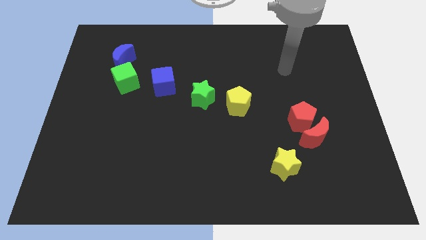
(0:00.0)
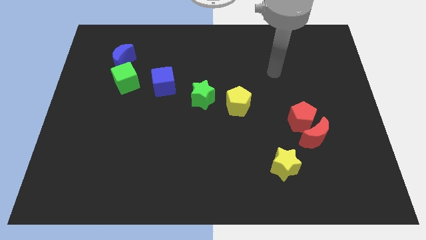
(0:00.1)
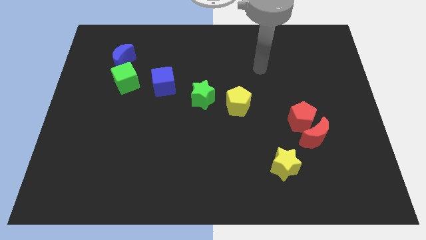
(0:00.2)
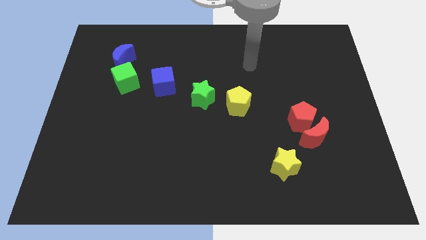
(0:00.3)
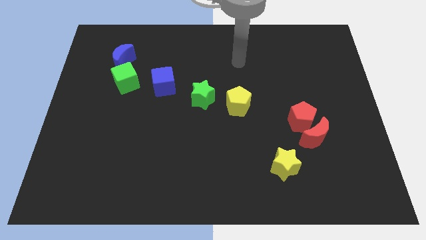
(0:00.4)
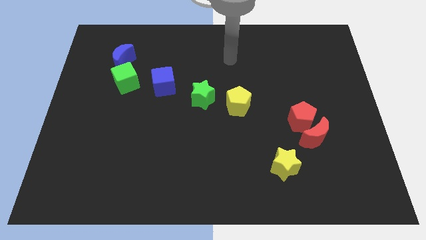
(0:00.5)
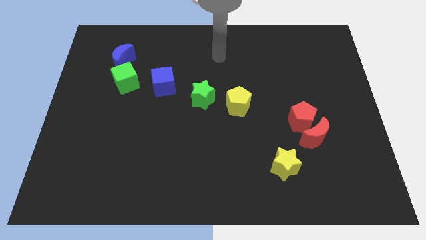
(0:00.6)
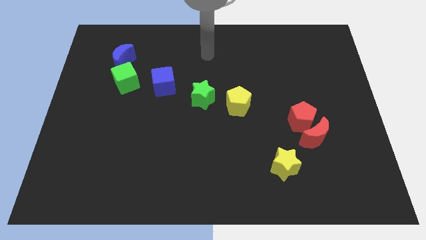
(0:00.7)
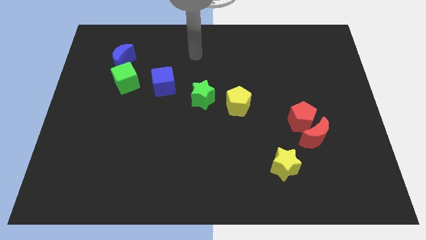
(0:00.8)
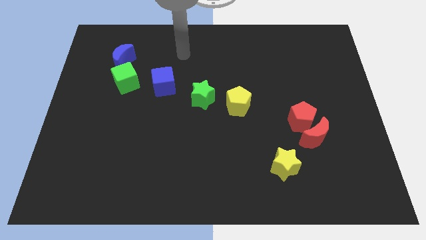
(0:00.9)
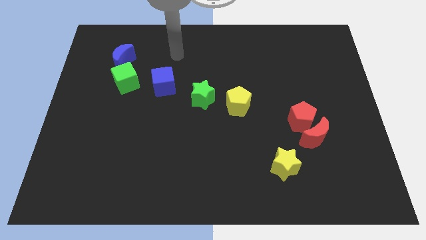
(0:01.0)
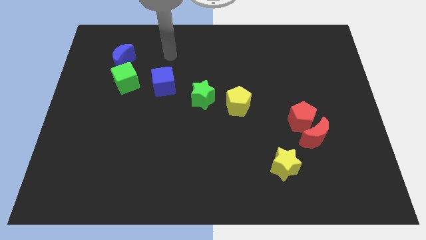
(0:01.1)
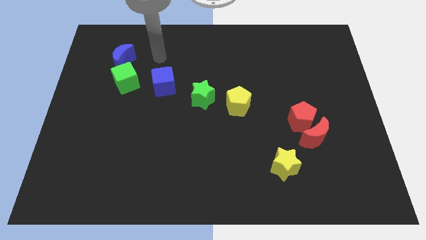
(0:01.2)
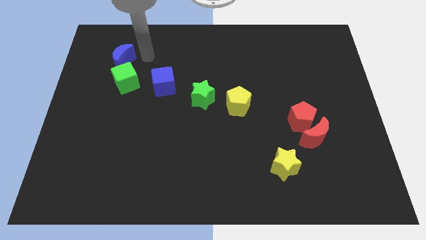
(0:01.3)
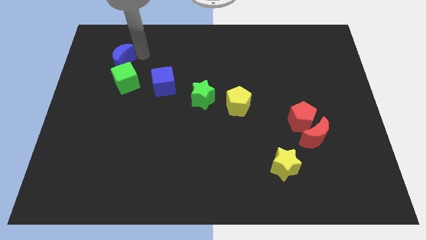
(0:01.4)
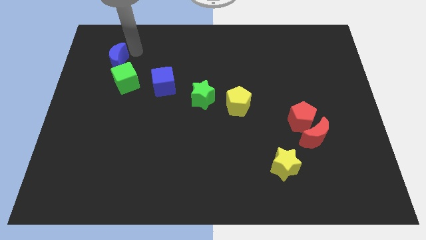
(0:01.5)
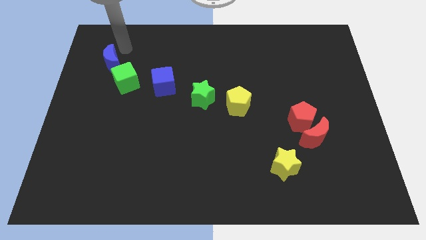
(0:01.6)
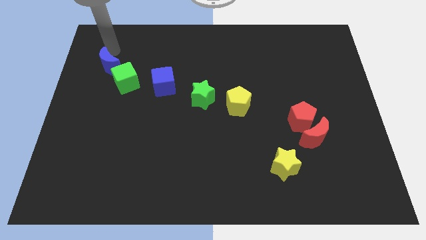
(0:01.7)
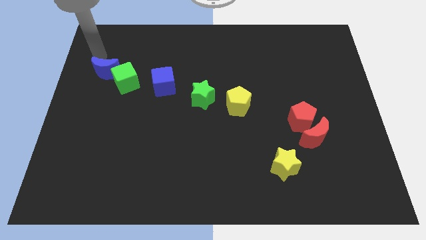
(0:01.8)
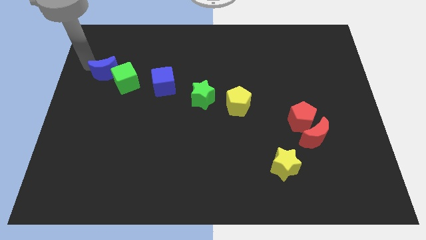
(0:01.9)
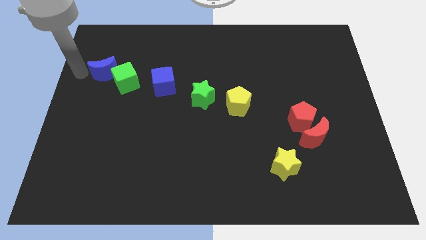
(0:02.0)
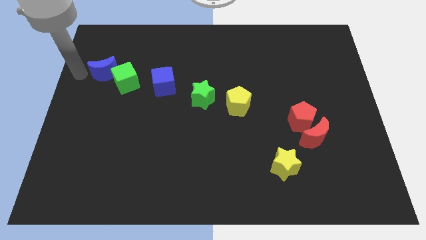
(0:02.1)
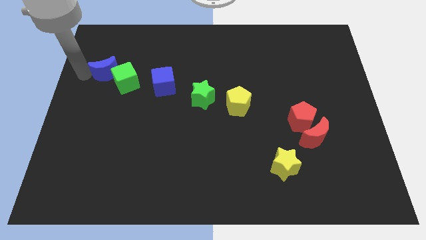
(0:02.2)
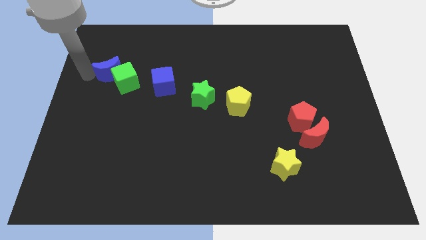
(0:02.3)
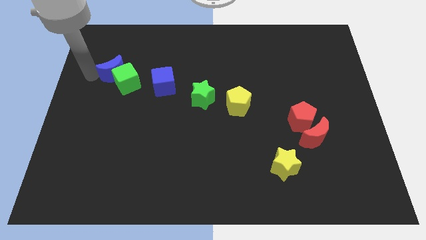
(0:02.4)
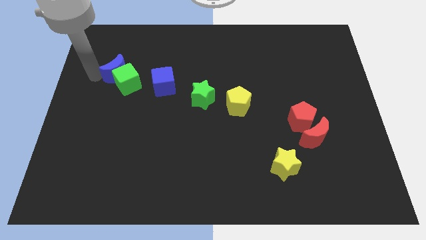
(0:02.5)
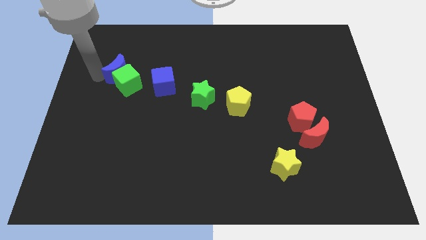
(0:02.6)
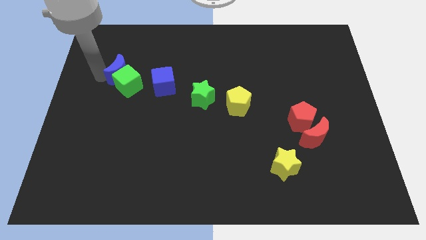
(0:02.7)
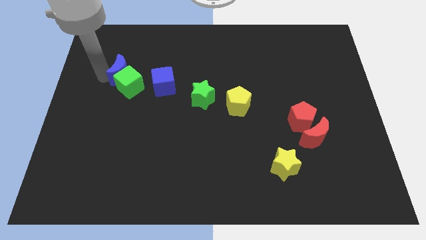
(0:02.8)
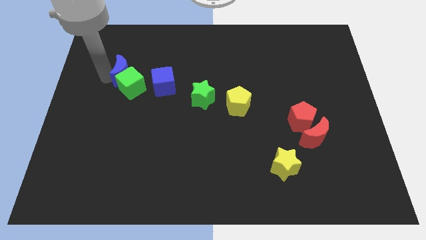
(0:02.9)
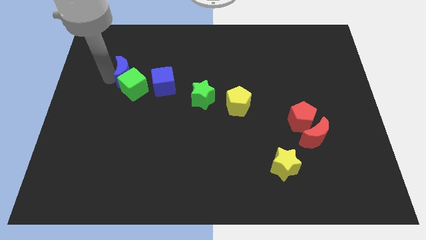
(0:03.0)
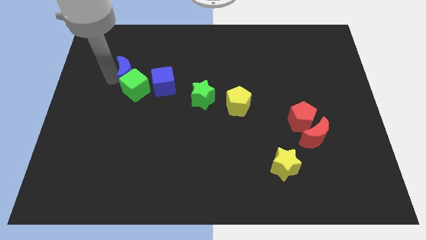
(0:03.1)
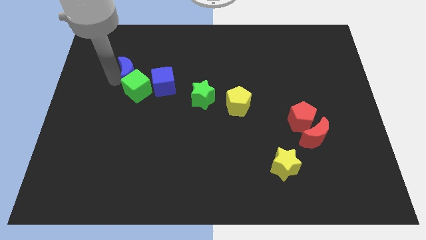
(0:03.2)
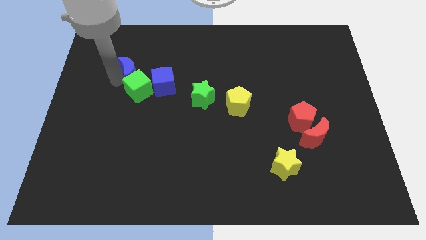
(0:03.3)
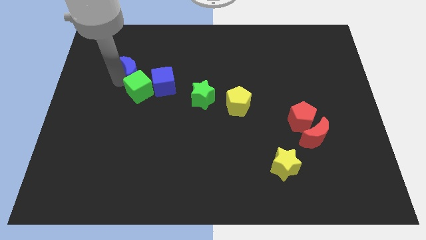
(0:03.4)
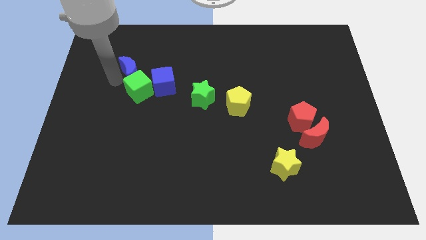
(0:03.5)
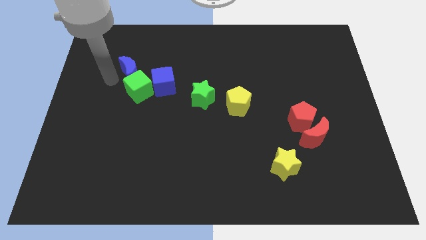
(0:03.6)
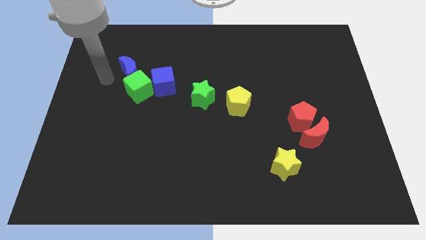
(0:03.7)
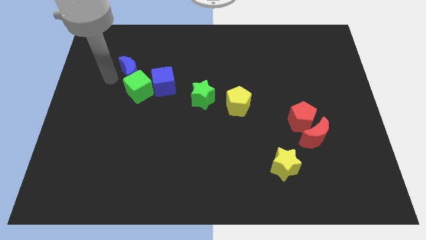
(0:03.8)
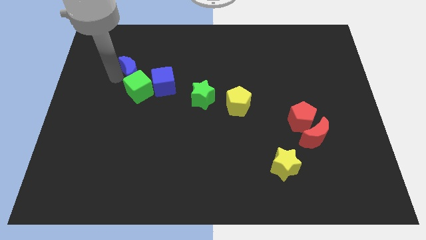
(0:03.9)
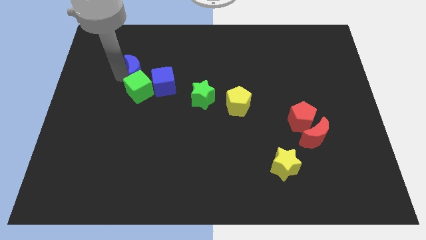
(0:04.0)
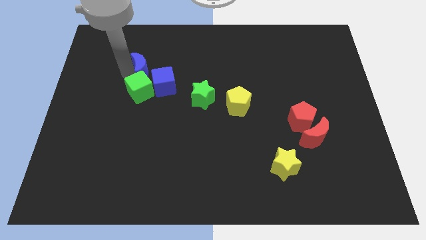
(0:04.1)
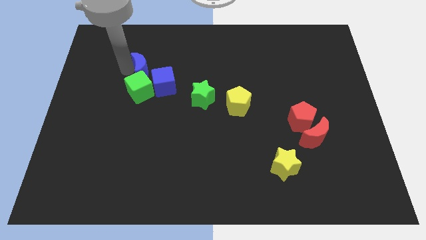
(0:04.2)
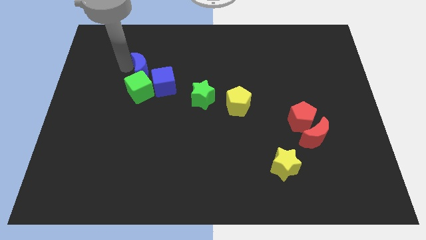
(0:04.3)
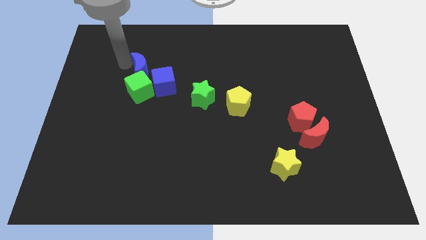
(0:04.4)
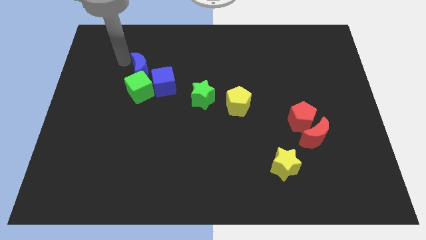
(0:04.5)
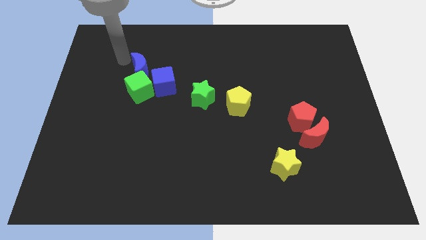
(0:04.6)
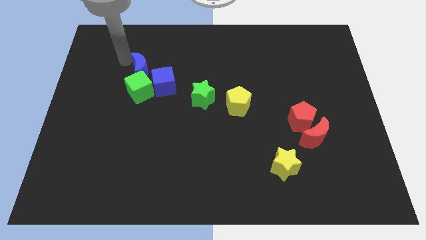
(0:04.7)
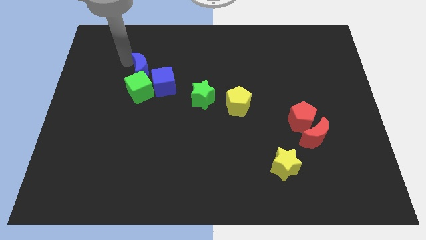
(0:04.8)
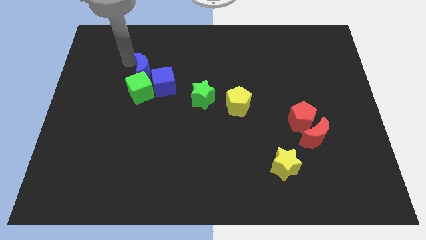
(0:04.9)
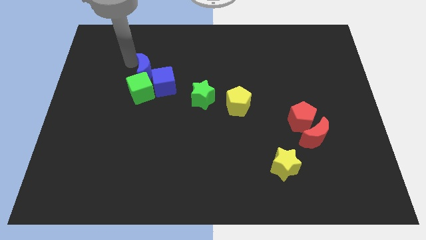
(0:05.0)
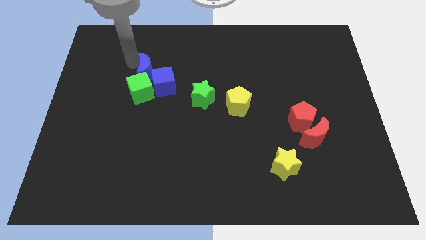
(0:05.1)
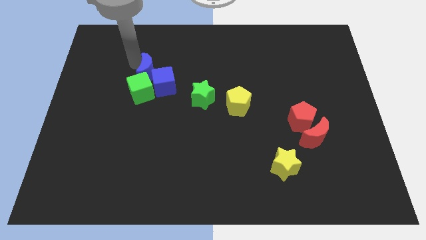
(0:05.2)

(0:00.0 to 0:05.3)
put the blue moon next to the blue cube

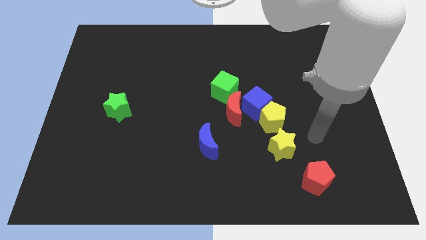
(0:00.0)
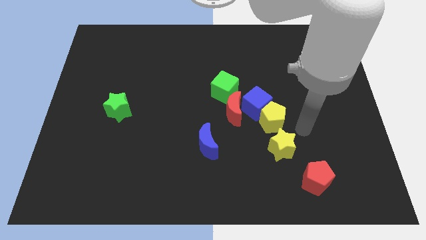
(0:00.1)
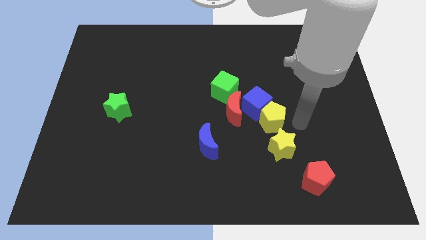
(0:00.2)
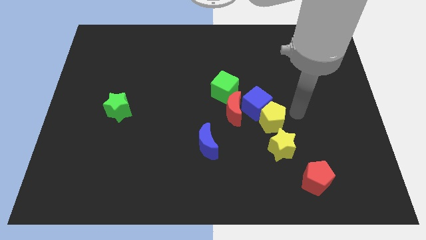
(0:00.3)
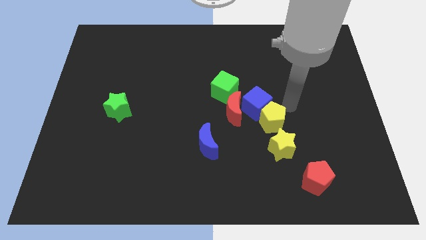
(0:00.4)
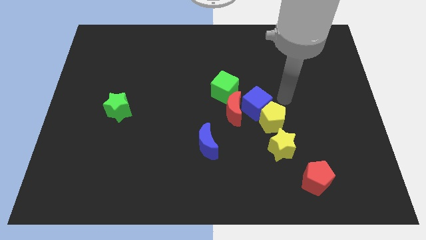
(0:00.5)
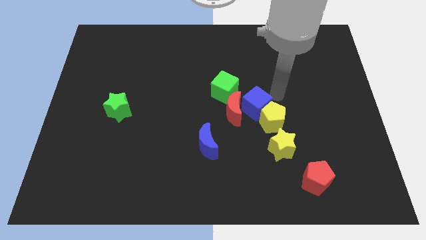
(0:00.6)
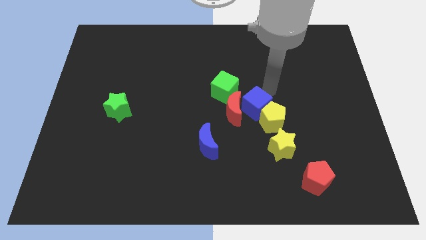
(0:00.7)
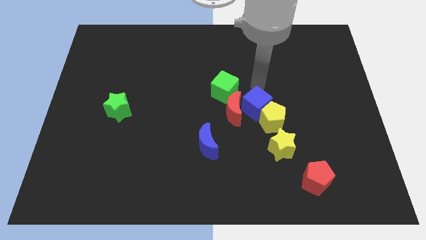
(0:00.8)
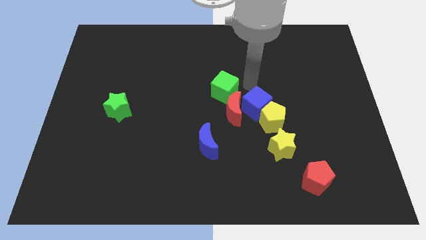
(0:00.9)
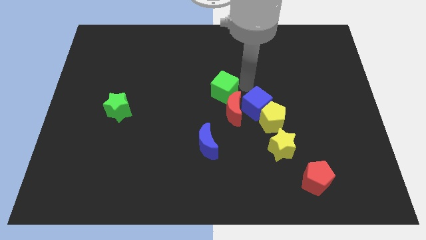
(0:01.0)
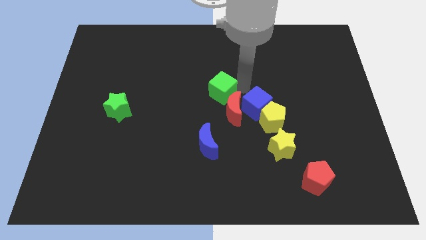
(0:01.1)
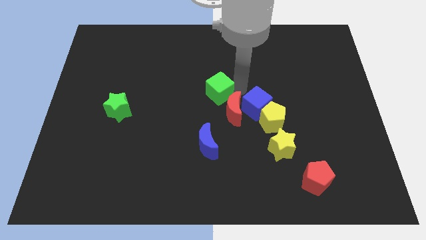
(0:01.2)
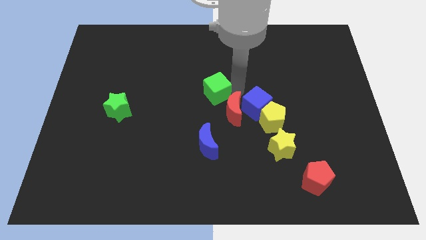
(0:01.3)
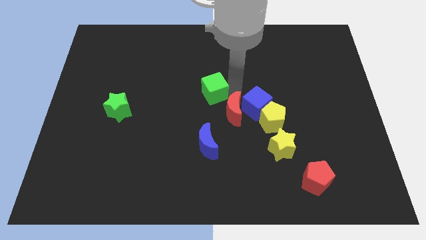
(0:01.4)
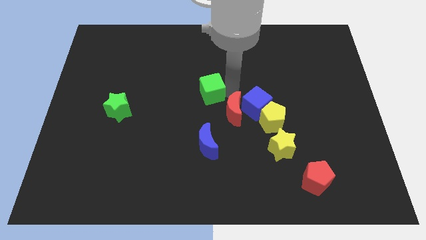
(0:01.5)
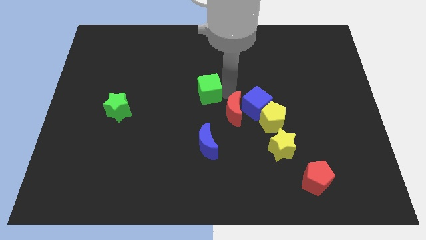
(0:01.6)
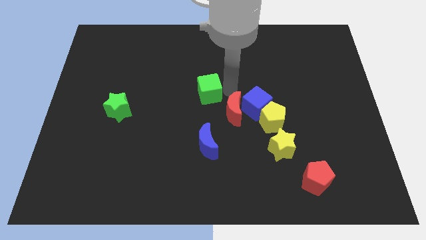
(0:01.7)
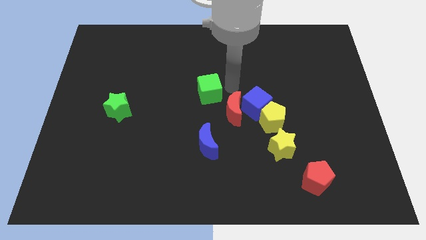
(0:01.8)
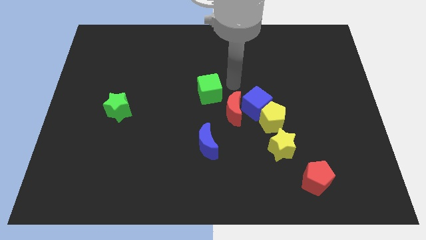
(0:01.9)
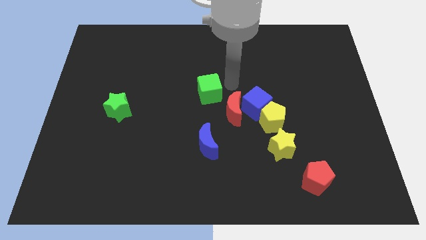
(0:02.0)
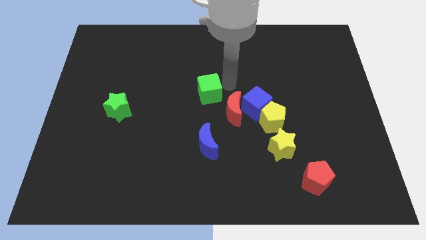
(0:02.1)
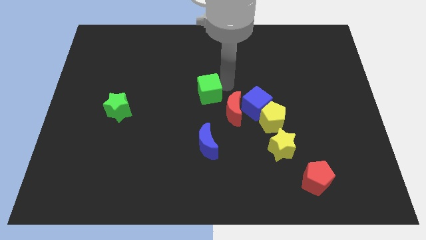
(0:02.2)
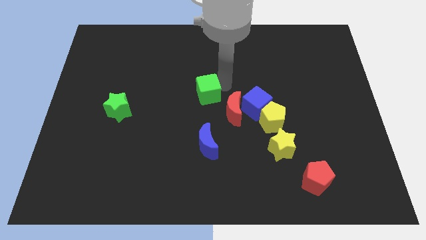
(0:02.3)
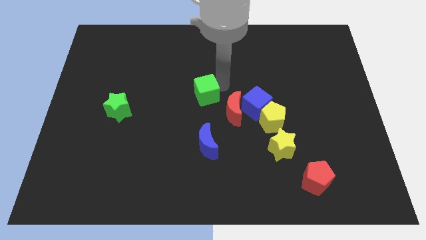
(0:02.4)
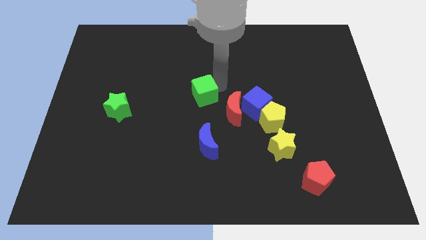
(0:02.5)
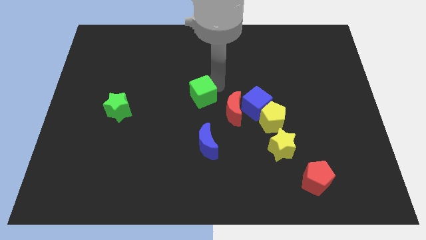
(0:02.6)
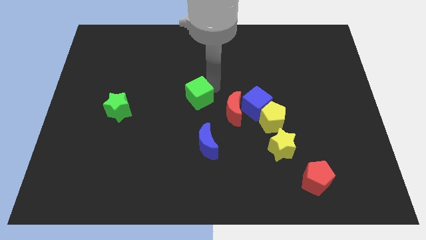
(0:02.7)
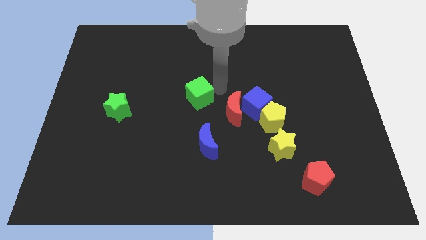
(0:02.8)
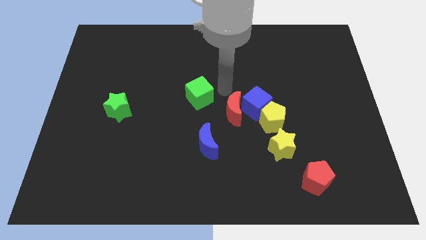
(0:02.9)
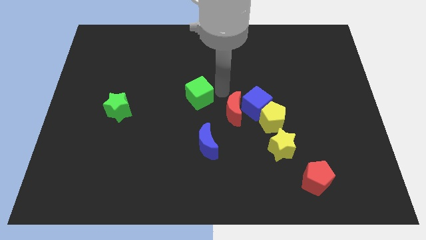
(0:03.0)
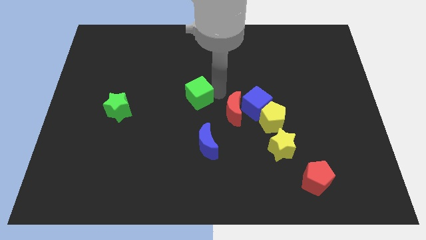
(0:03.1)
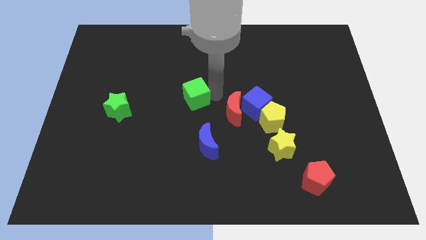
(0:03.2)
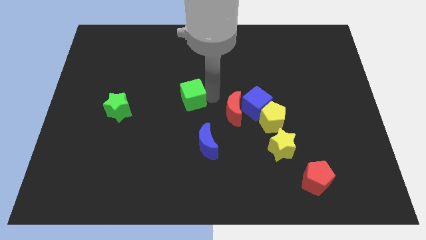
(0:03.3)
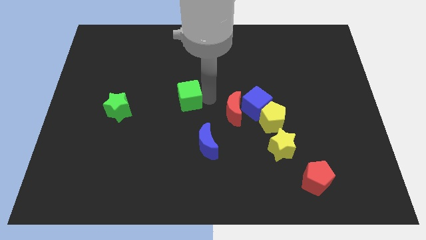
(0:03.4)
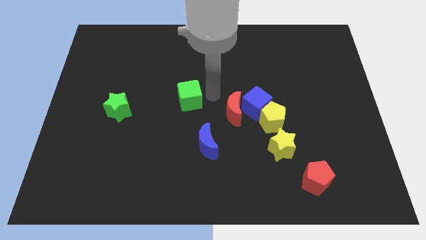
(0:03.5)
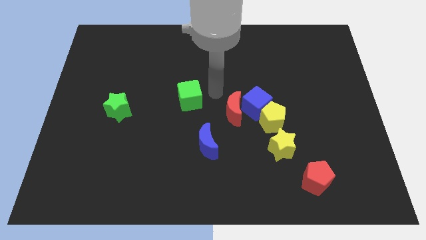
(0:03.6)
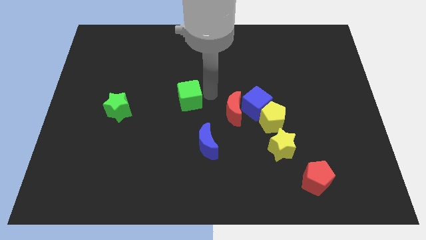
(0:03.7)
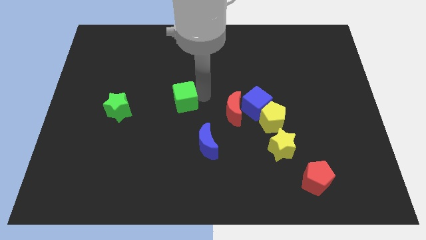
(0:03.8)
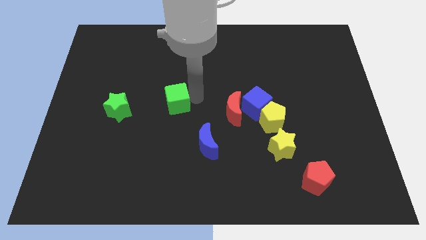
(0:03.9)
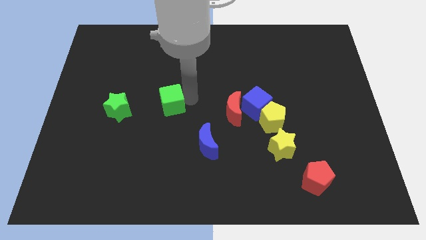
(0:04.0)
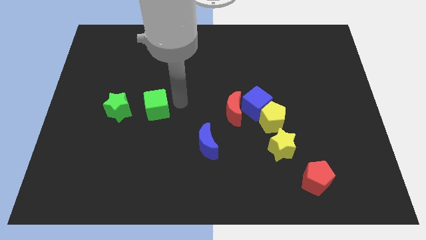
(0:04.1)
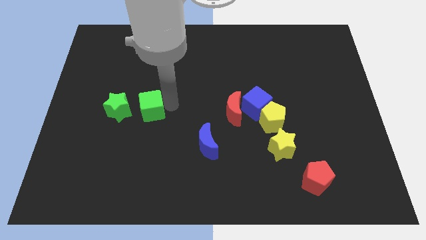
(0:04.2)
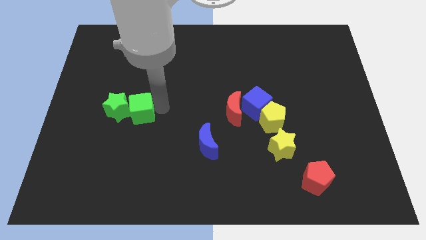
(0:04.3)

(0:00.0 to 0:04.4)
move the green cube towards the green star
